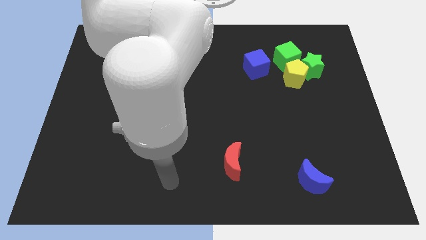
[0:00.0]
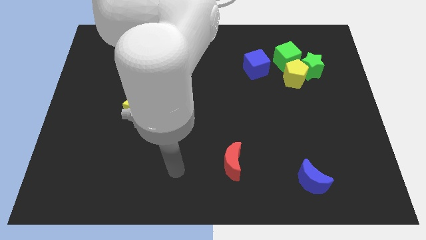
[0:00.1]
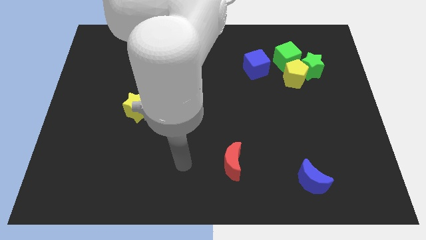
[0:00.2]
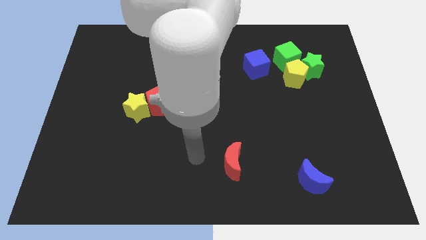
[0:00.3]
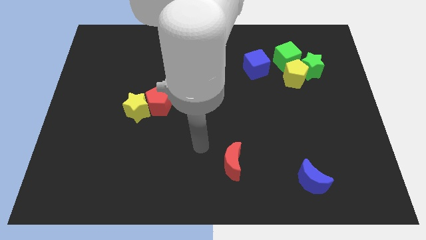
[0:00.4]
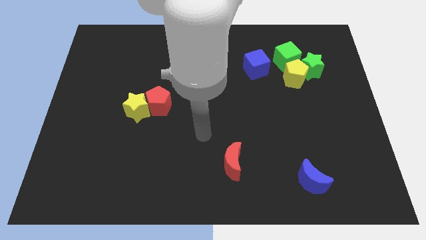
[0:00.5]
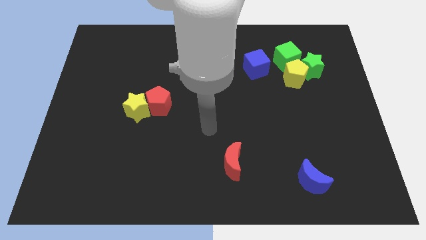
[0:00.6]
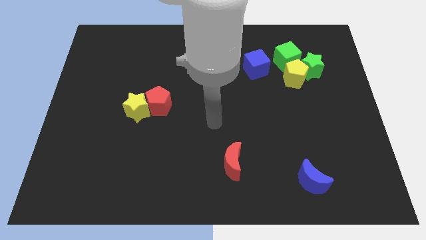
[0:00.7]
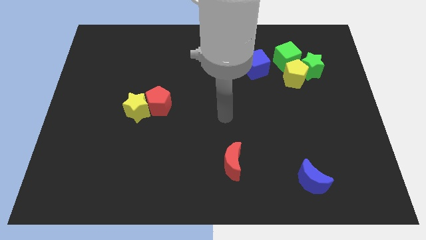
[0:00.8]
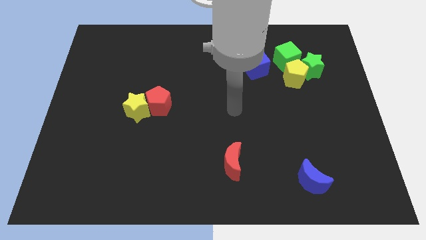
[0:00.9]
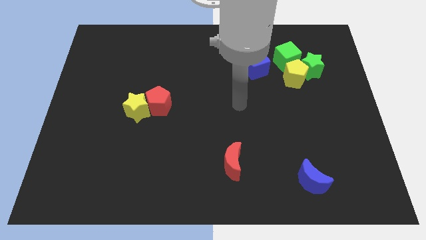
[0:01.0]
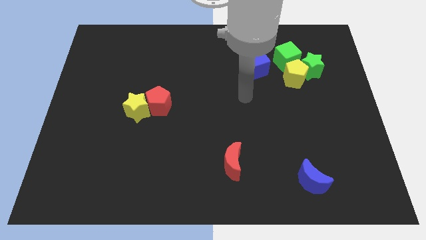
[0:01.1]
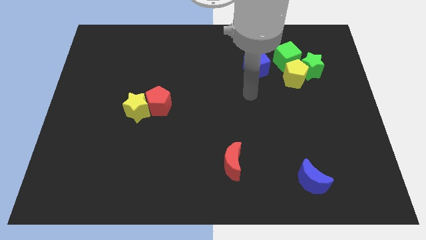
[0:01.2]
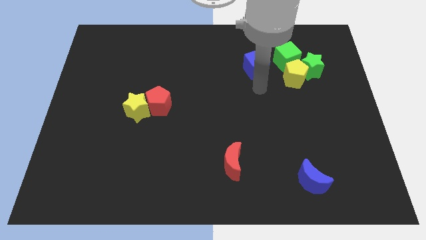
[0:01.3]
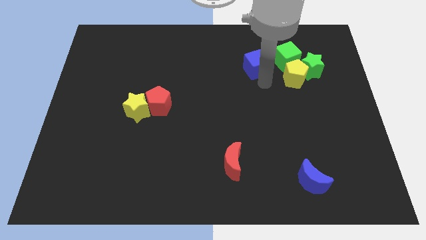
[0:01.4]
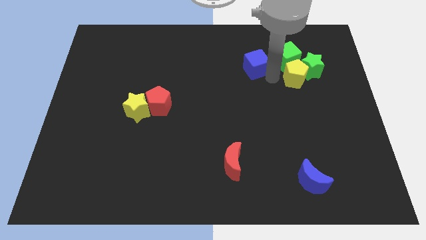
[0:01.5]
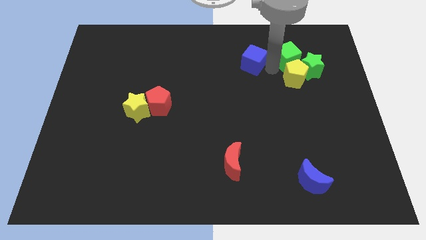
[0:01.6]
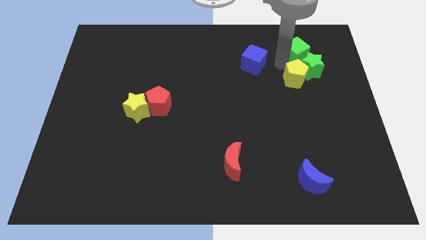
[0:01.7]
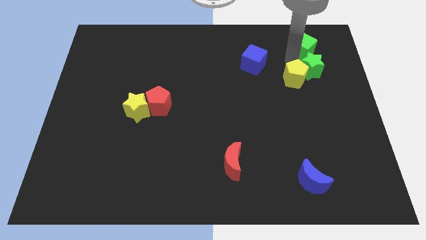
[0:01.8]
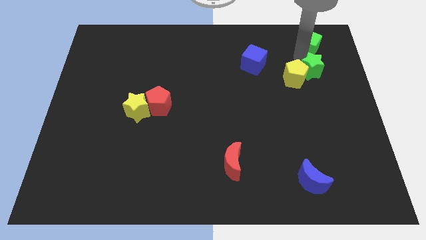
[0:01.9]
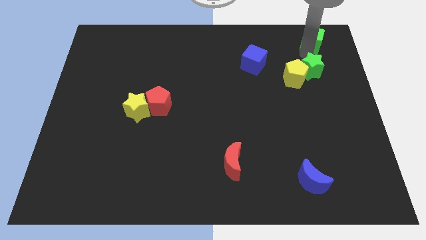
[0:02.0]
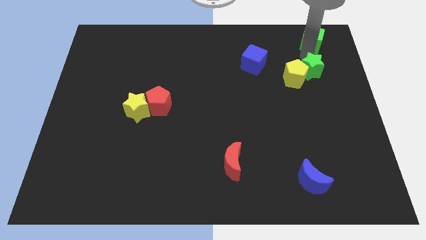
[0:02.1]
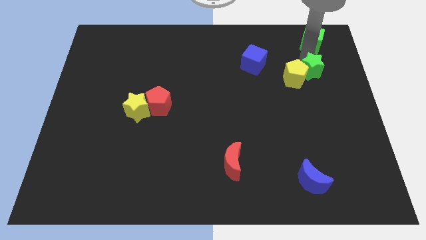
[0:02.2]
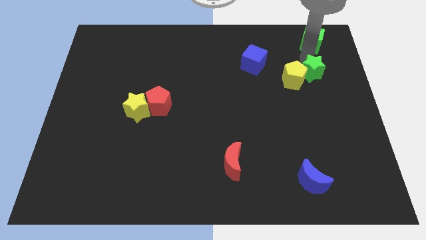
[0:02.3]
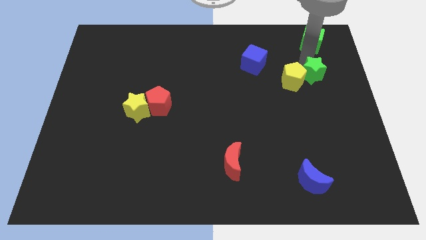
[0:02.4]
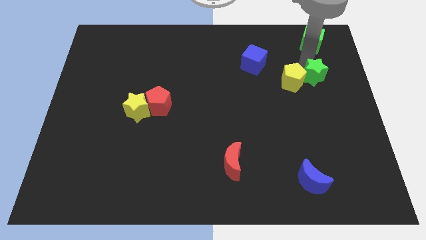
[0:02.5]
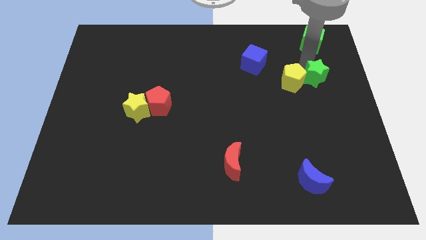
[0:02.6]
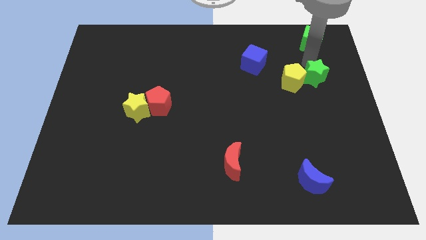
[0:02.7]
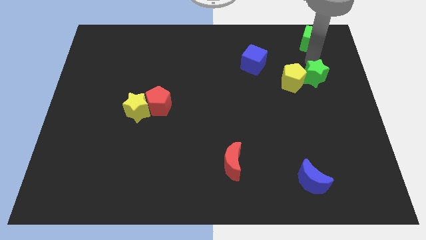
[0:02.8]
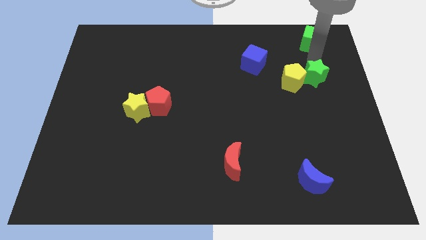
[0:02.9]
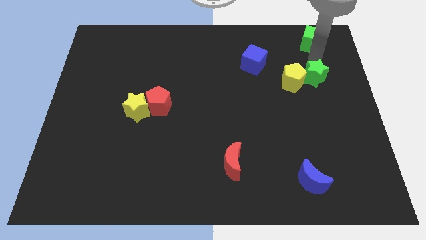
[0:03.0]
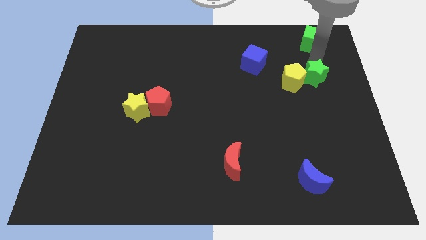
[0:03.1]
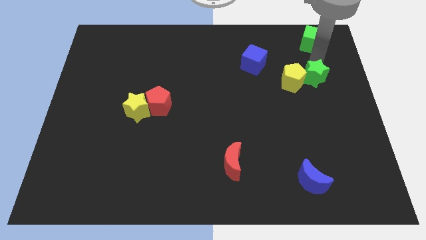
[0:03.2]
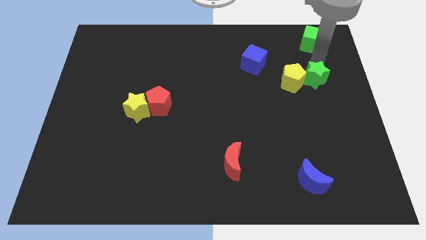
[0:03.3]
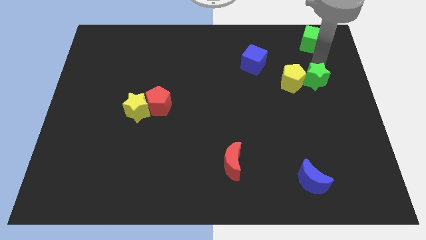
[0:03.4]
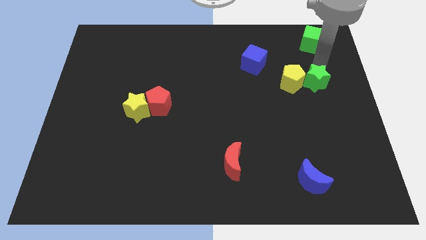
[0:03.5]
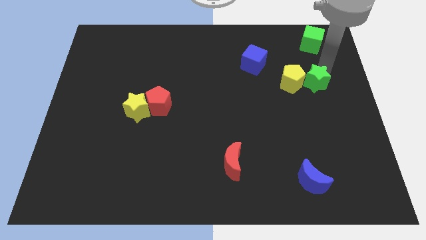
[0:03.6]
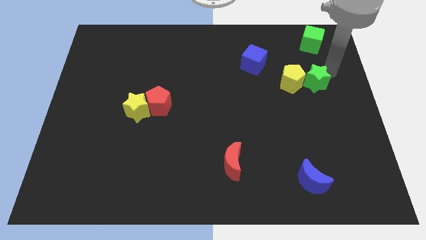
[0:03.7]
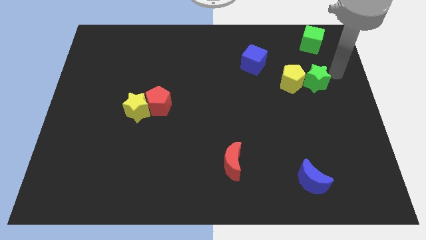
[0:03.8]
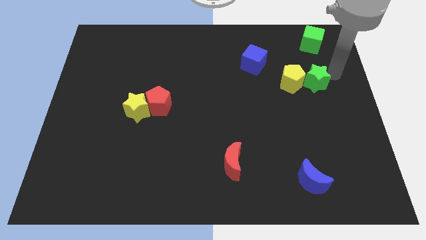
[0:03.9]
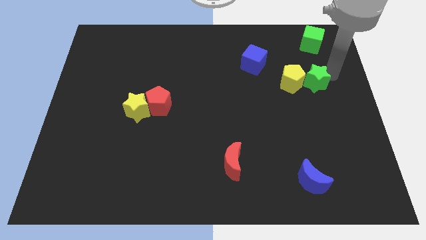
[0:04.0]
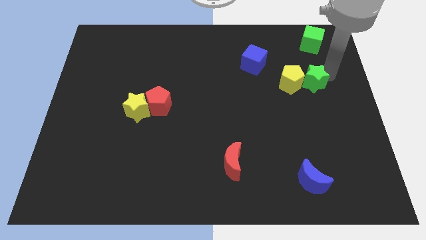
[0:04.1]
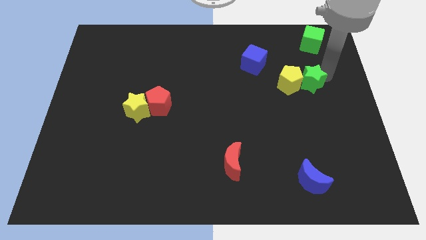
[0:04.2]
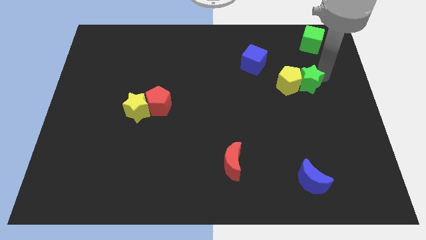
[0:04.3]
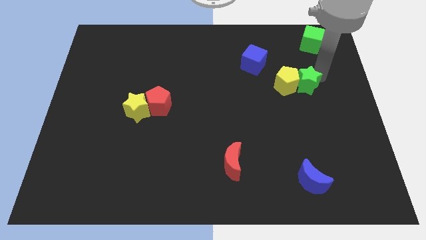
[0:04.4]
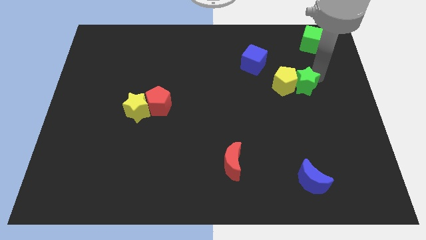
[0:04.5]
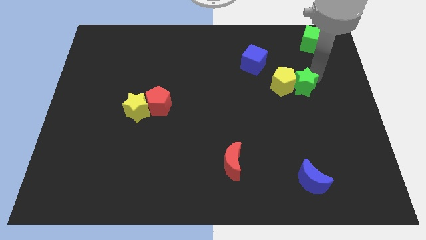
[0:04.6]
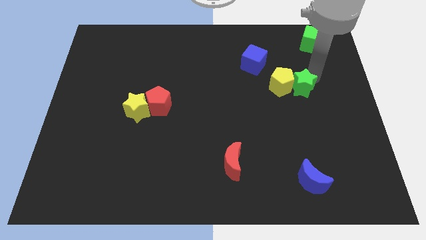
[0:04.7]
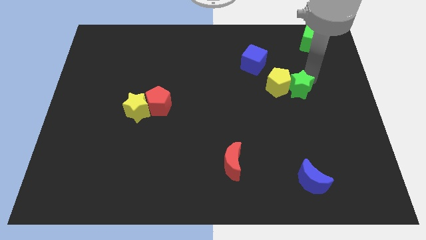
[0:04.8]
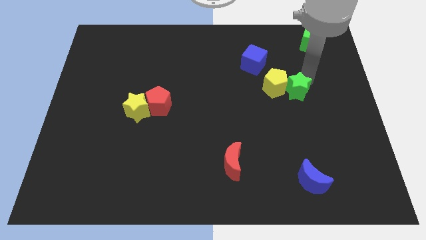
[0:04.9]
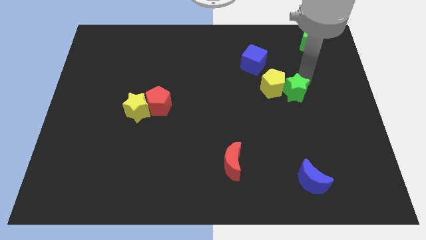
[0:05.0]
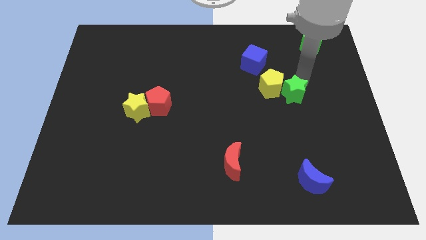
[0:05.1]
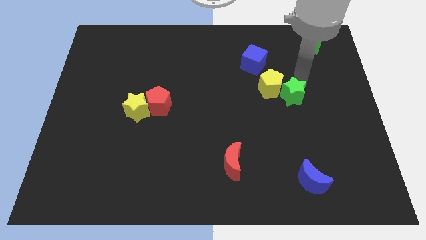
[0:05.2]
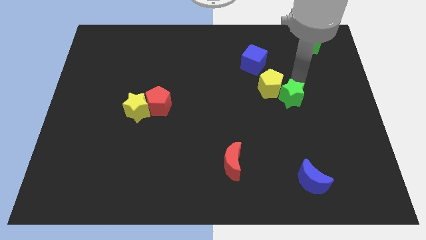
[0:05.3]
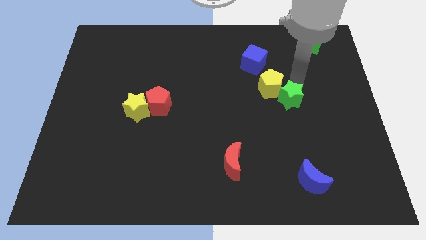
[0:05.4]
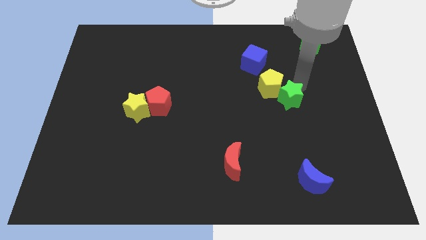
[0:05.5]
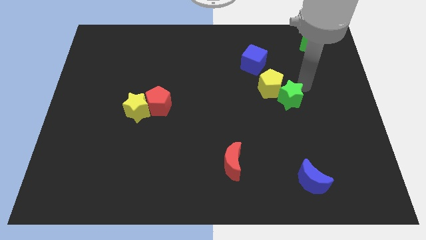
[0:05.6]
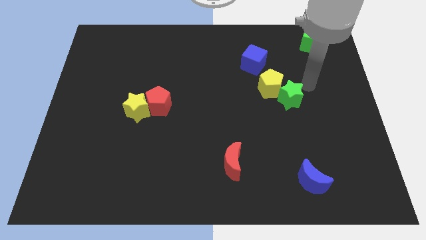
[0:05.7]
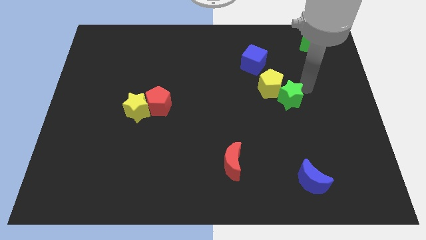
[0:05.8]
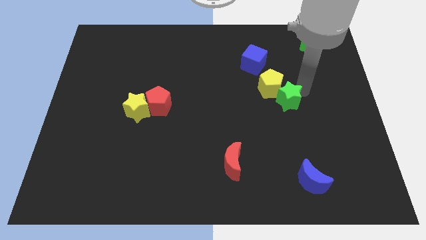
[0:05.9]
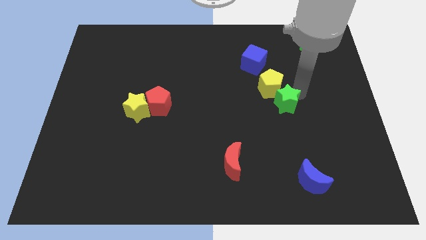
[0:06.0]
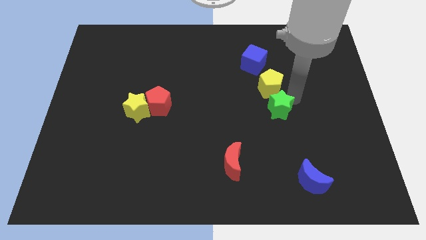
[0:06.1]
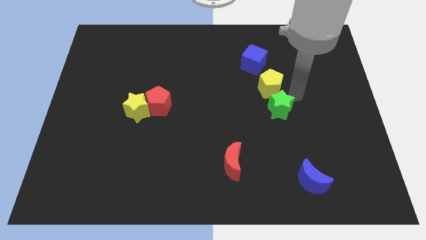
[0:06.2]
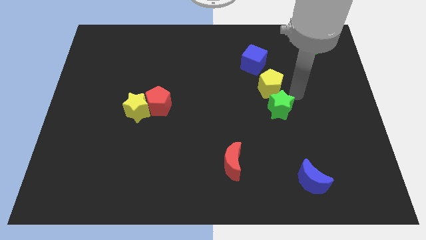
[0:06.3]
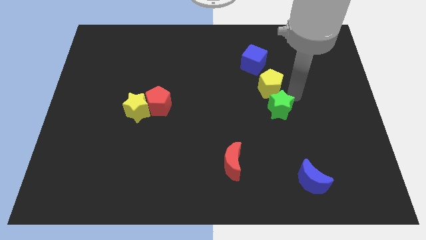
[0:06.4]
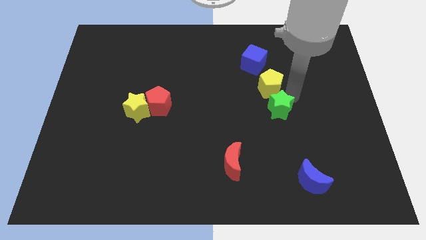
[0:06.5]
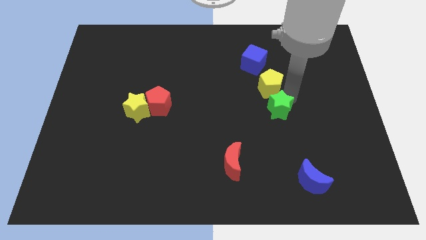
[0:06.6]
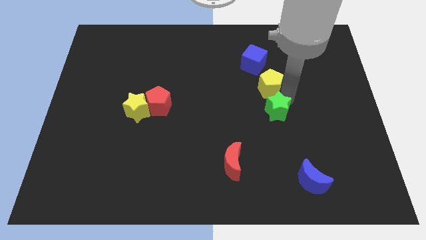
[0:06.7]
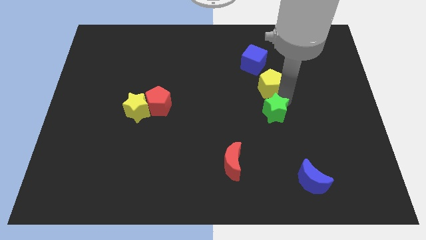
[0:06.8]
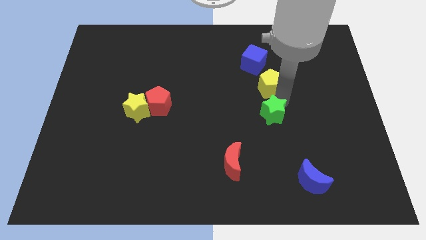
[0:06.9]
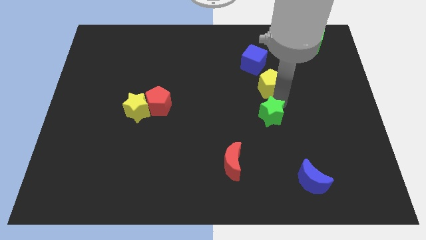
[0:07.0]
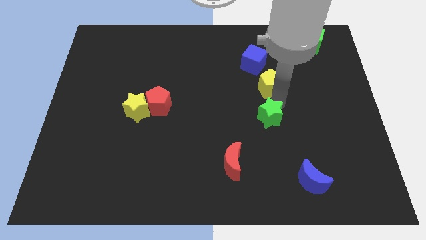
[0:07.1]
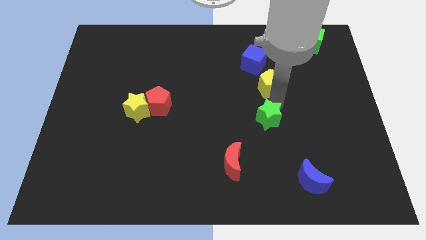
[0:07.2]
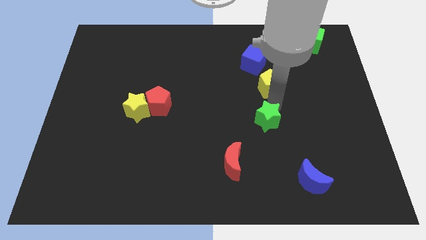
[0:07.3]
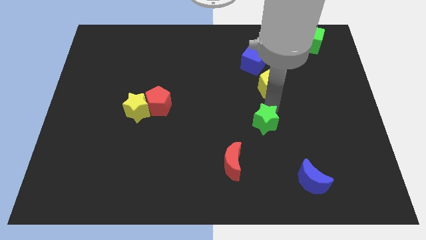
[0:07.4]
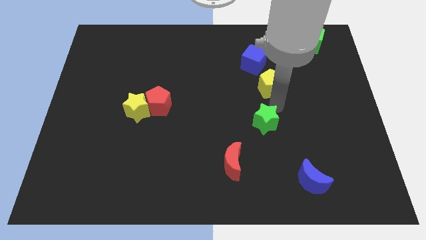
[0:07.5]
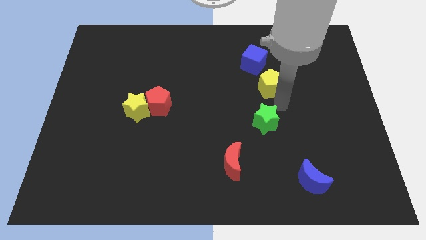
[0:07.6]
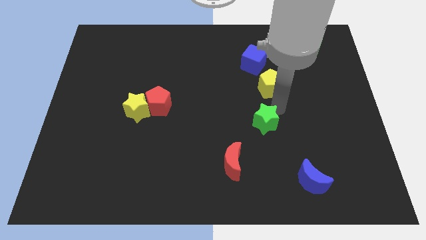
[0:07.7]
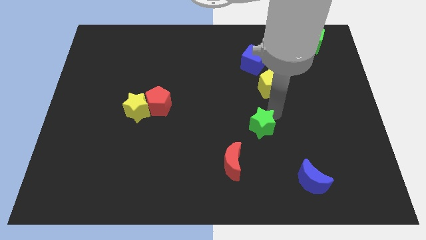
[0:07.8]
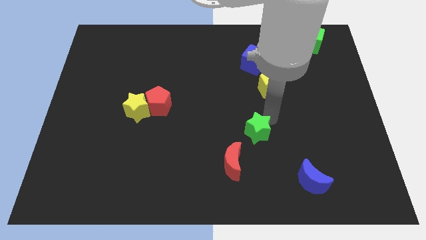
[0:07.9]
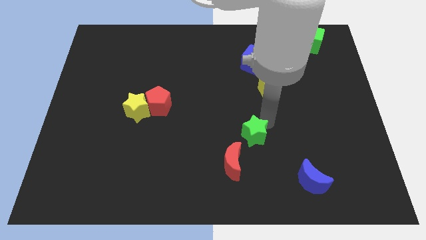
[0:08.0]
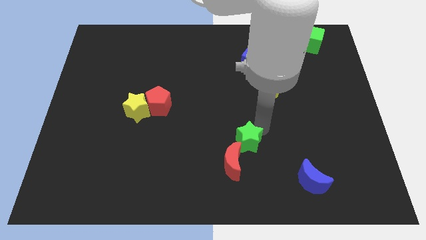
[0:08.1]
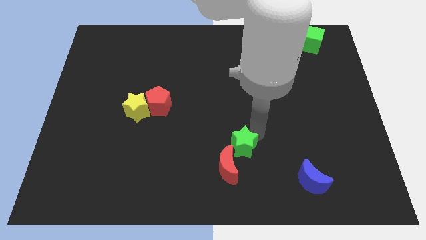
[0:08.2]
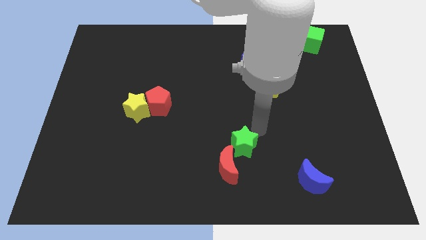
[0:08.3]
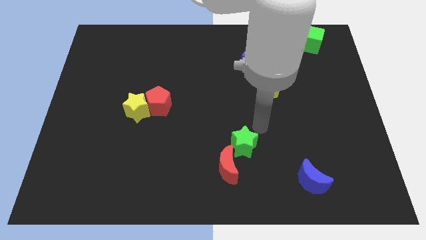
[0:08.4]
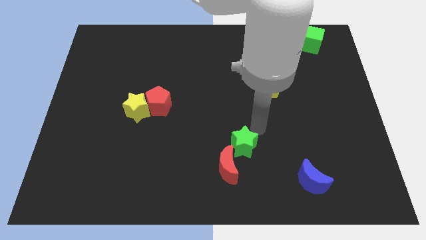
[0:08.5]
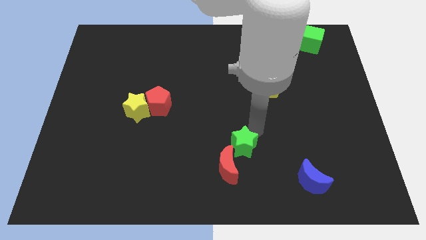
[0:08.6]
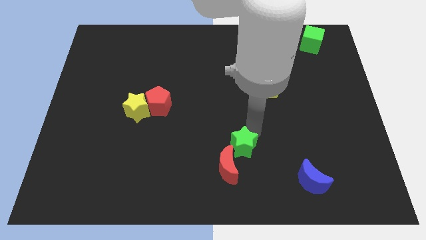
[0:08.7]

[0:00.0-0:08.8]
put the green star to the red moon
